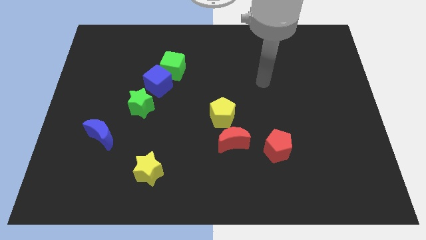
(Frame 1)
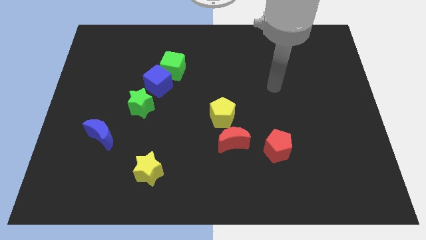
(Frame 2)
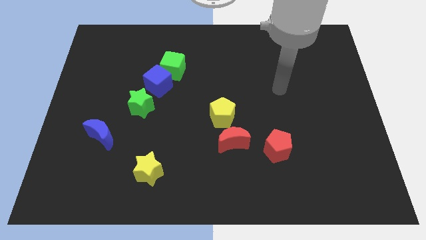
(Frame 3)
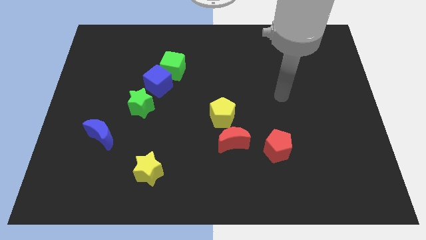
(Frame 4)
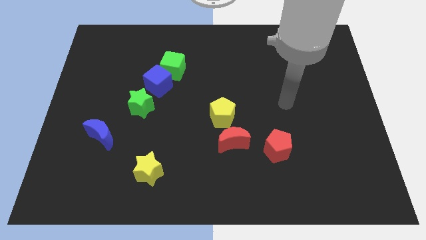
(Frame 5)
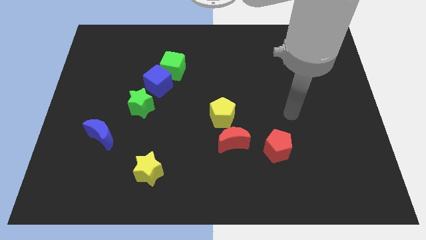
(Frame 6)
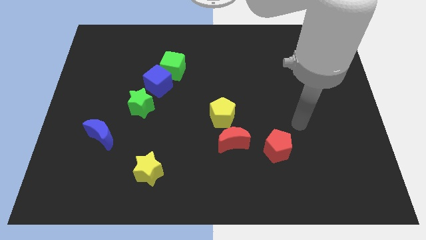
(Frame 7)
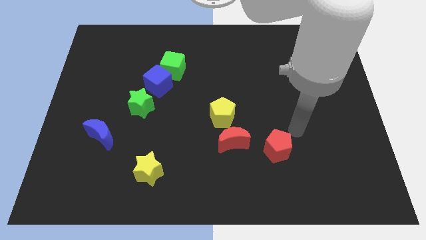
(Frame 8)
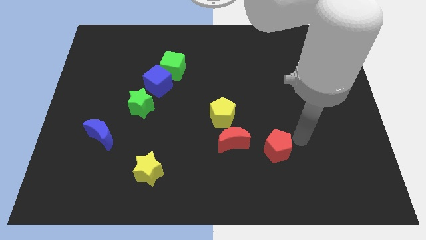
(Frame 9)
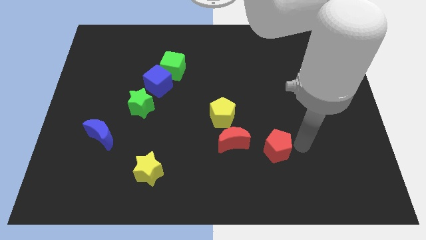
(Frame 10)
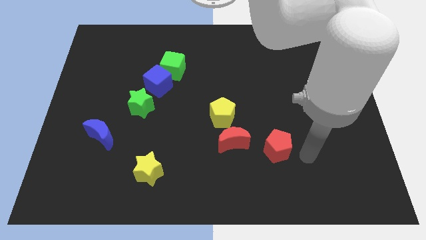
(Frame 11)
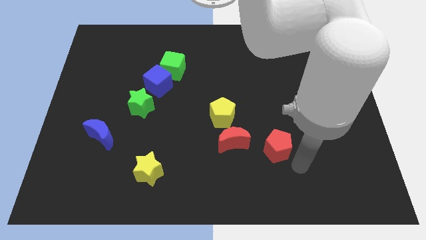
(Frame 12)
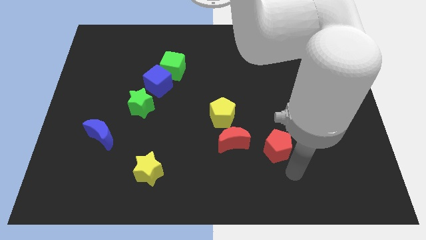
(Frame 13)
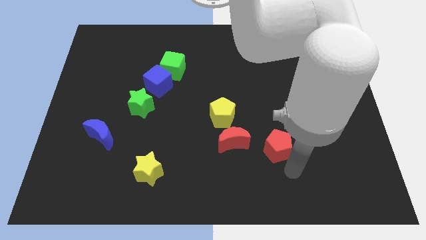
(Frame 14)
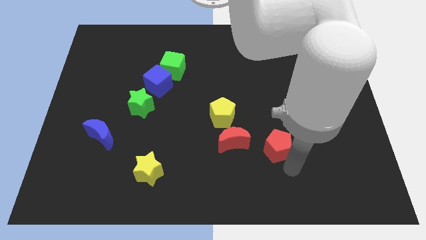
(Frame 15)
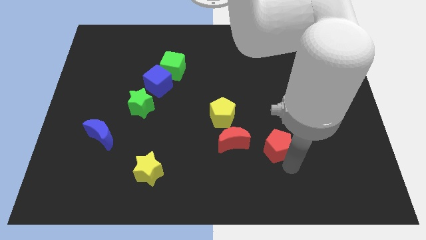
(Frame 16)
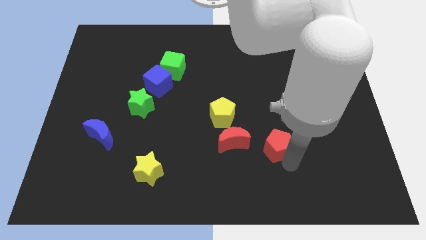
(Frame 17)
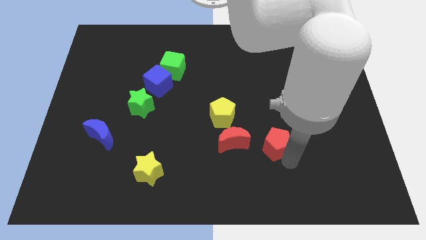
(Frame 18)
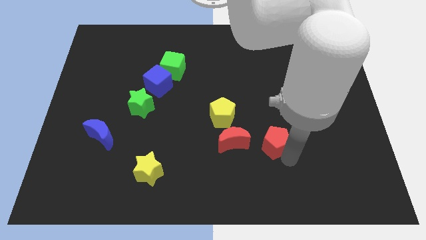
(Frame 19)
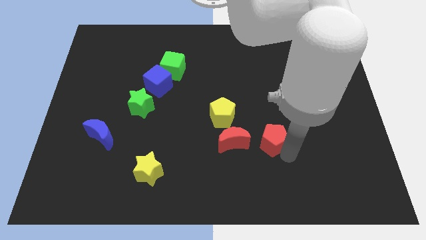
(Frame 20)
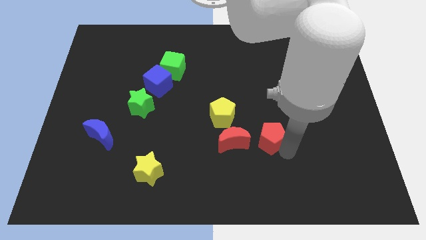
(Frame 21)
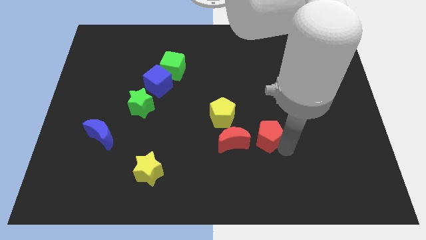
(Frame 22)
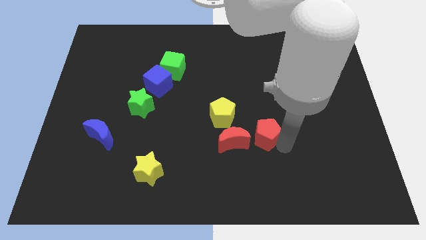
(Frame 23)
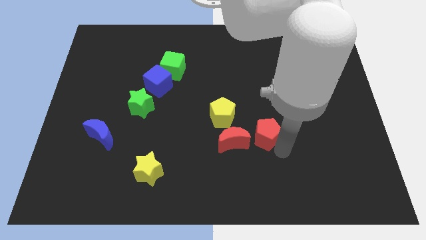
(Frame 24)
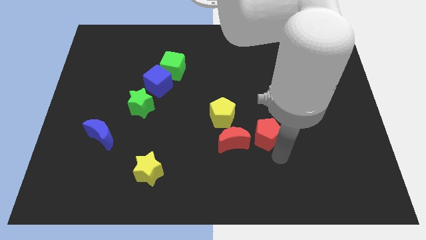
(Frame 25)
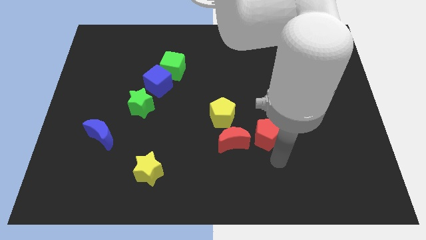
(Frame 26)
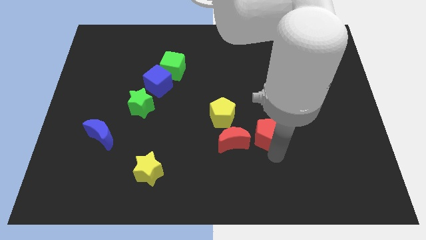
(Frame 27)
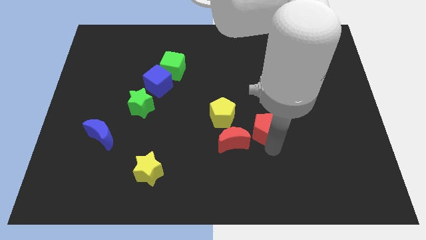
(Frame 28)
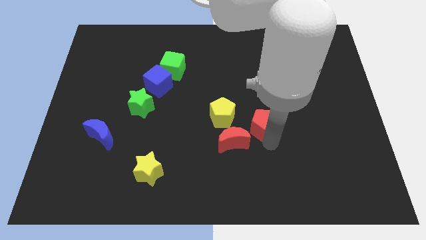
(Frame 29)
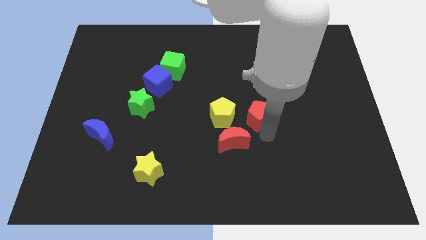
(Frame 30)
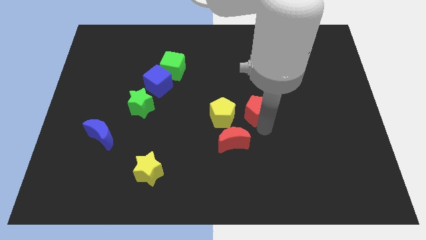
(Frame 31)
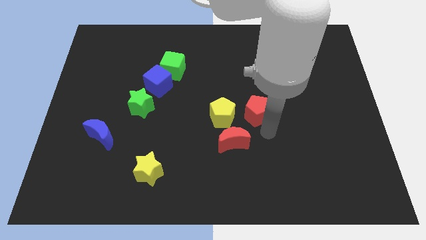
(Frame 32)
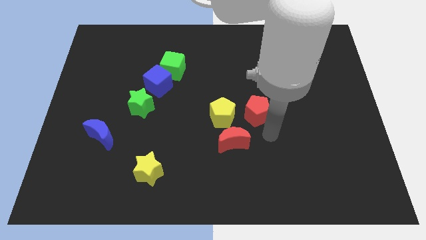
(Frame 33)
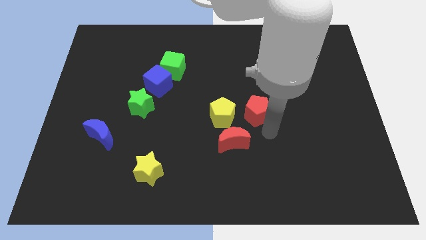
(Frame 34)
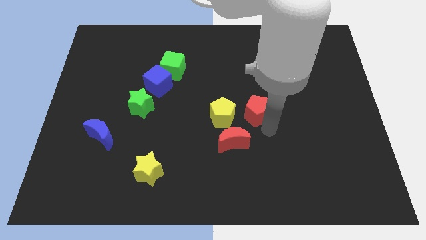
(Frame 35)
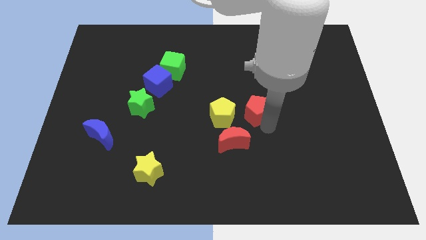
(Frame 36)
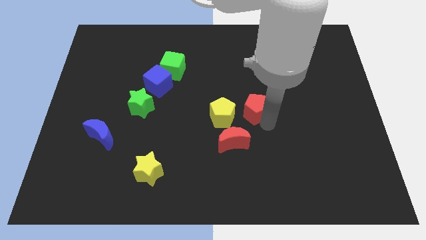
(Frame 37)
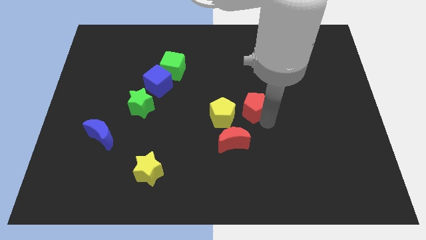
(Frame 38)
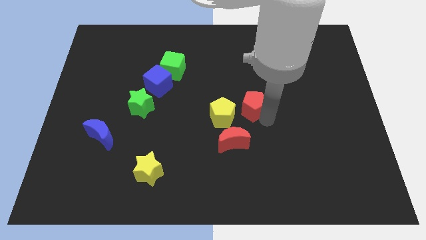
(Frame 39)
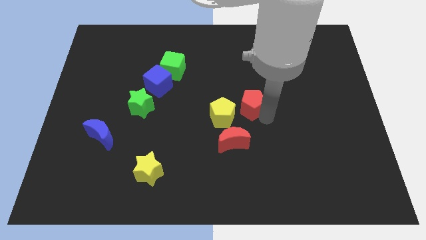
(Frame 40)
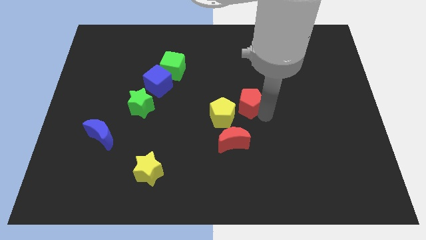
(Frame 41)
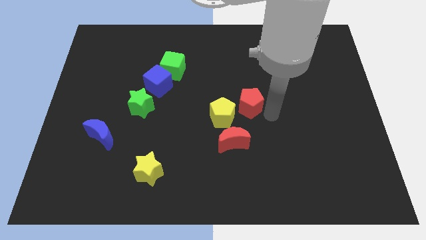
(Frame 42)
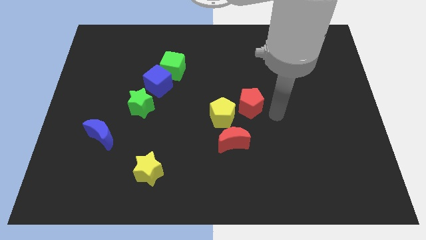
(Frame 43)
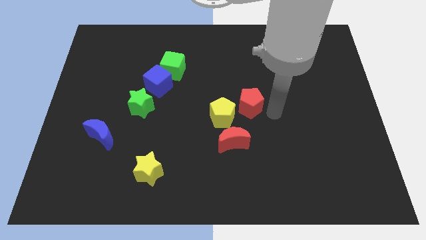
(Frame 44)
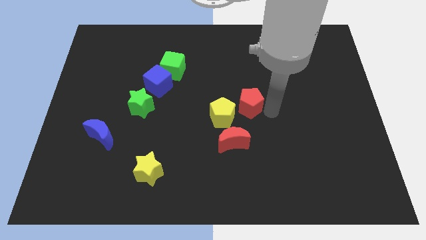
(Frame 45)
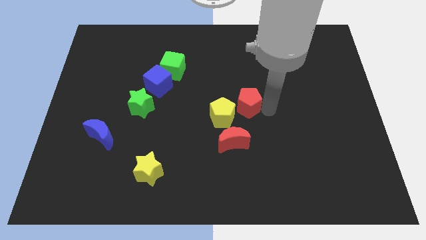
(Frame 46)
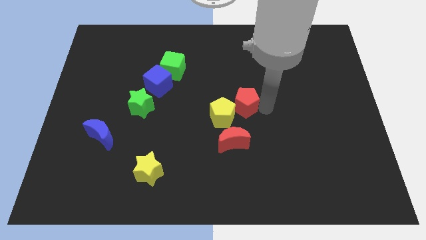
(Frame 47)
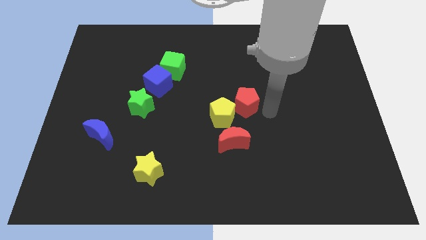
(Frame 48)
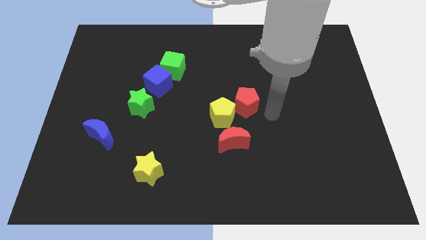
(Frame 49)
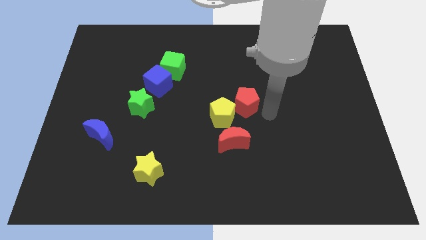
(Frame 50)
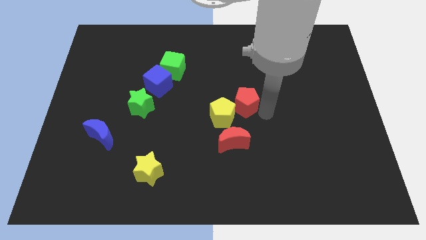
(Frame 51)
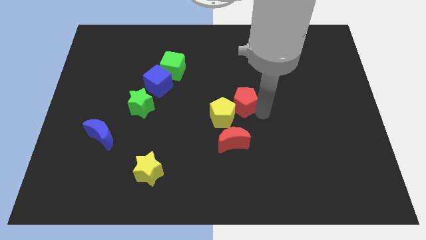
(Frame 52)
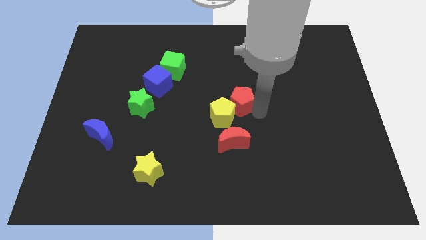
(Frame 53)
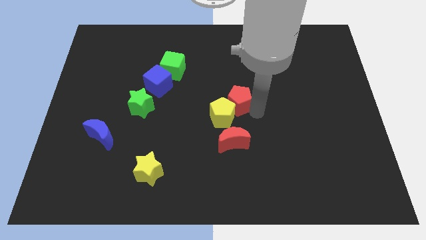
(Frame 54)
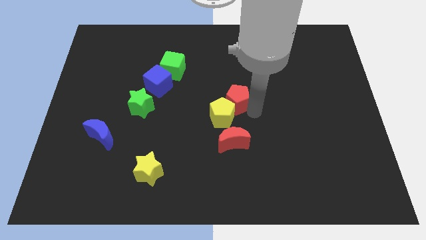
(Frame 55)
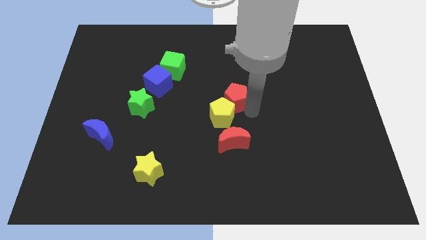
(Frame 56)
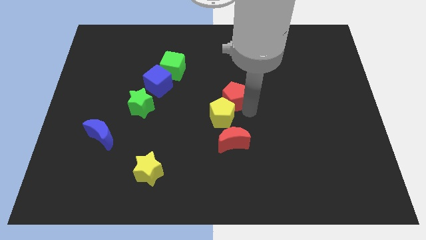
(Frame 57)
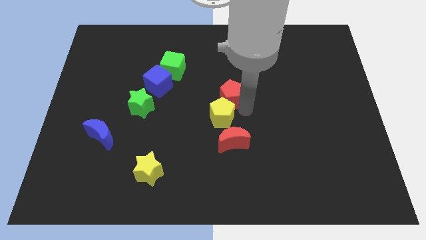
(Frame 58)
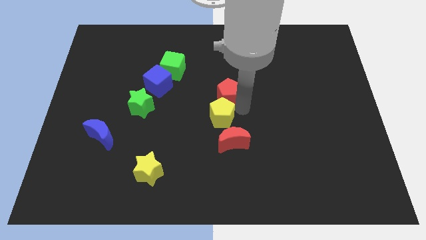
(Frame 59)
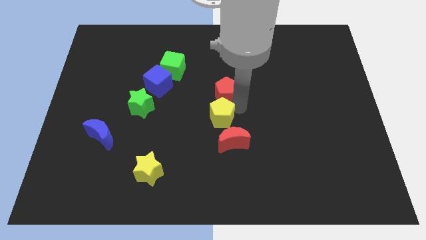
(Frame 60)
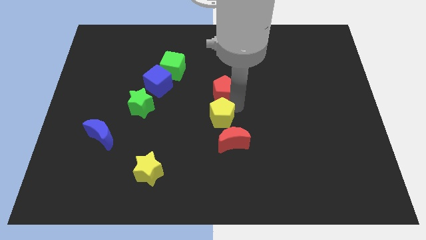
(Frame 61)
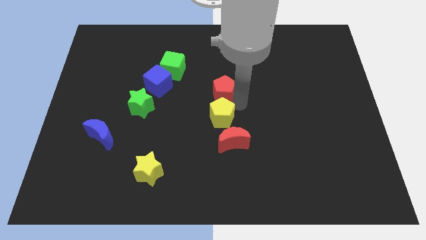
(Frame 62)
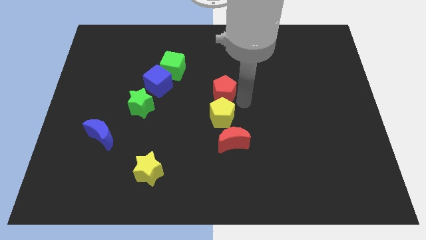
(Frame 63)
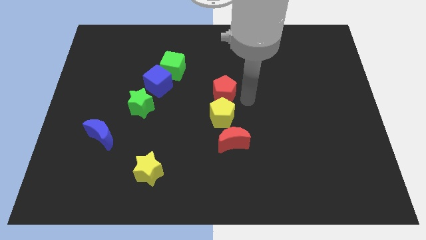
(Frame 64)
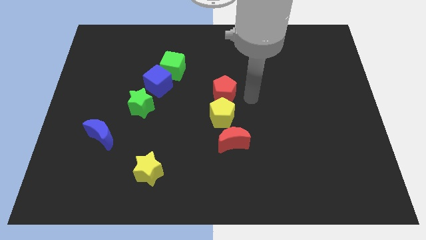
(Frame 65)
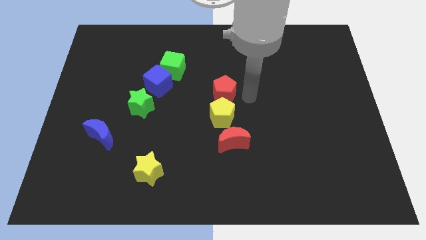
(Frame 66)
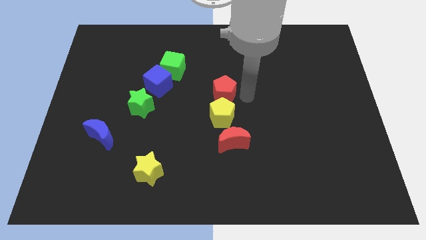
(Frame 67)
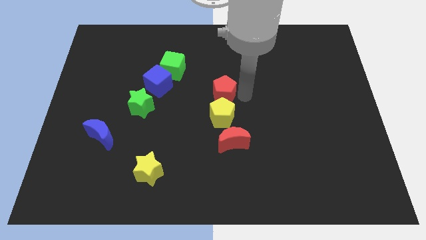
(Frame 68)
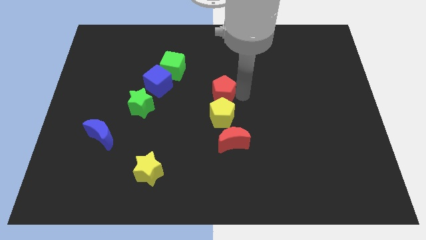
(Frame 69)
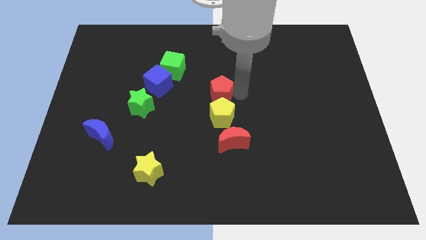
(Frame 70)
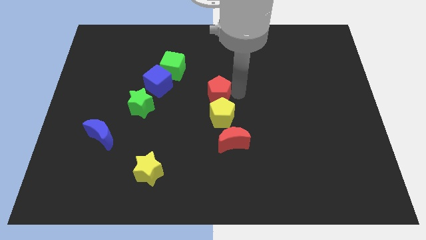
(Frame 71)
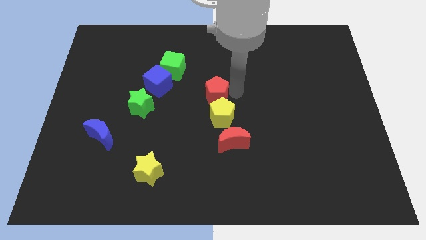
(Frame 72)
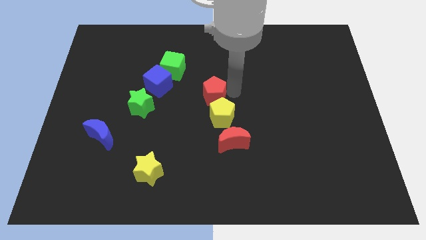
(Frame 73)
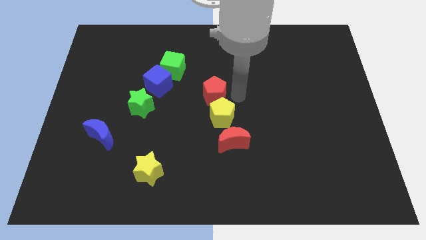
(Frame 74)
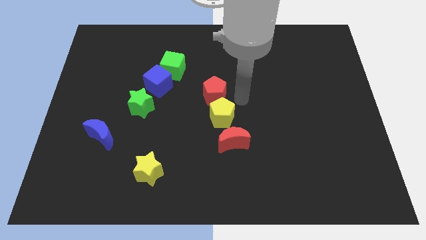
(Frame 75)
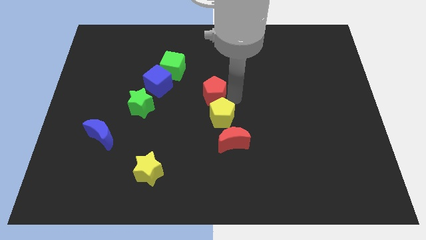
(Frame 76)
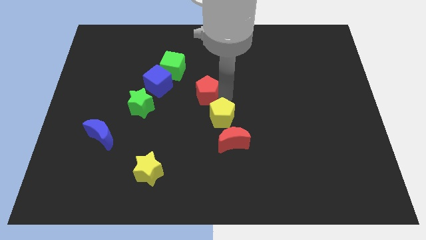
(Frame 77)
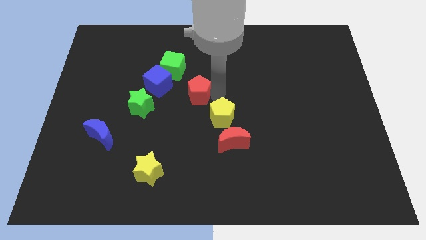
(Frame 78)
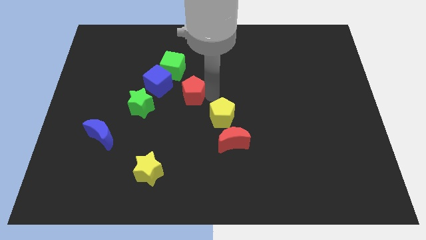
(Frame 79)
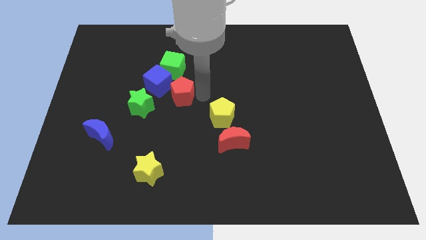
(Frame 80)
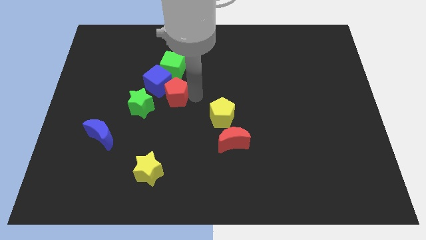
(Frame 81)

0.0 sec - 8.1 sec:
slide the red pentagon next to the blue cube
